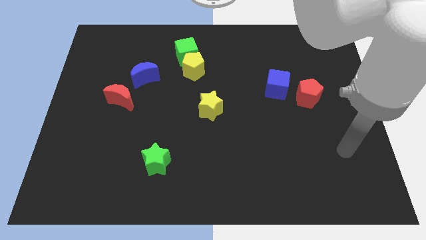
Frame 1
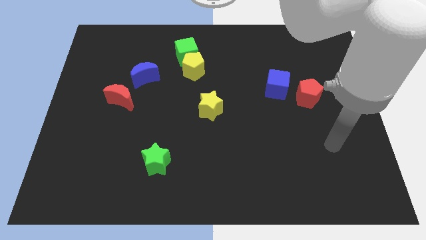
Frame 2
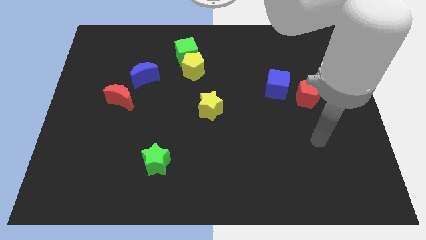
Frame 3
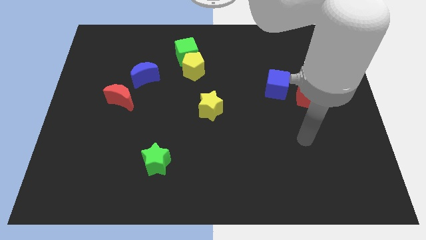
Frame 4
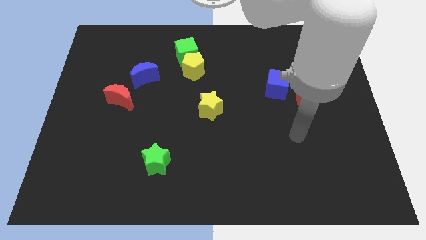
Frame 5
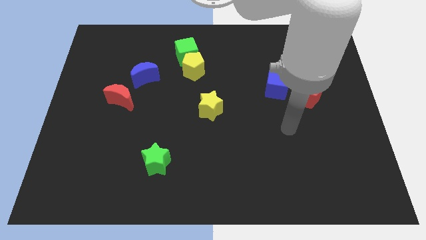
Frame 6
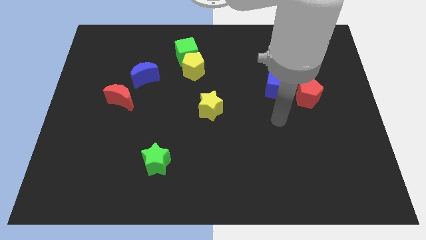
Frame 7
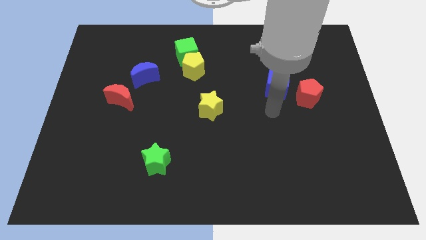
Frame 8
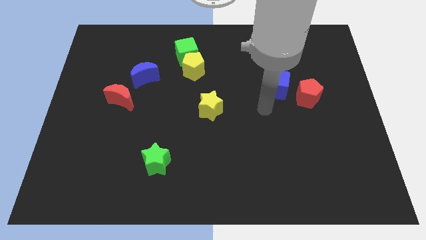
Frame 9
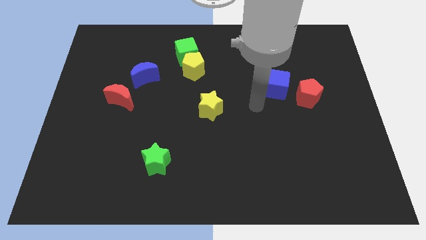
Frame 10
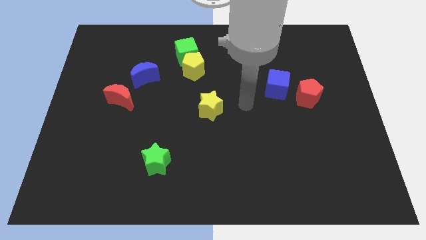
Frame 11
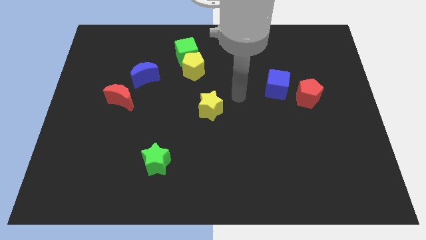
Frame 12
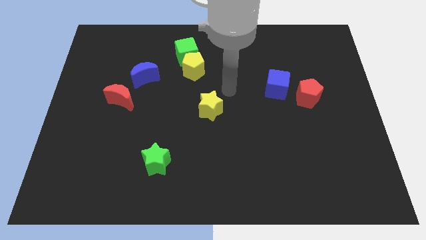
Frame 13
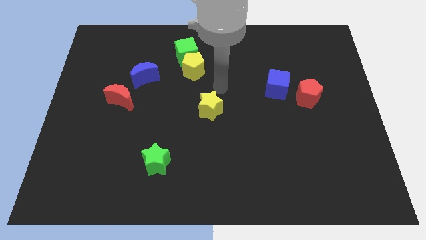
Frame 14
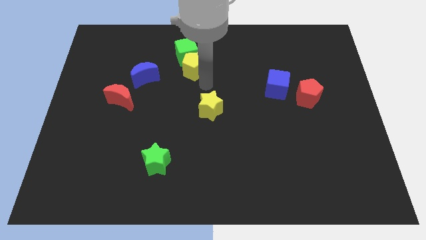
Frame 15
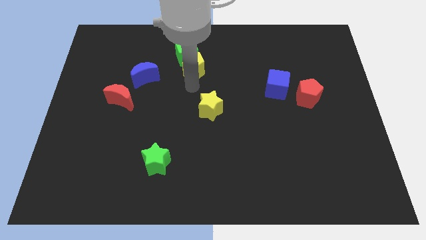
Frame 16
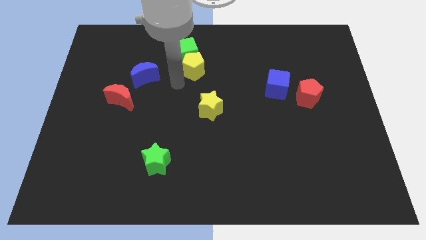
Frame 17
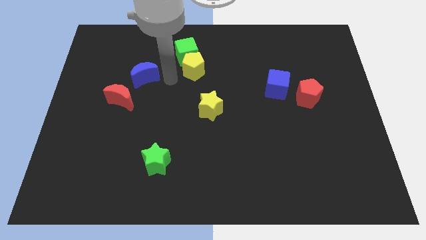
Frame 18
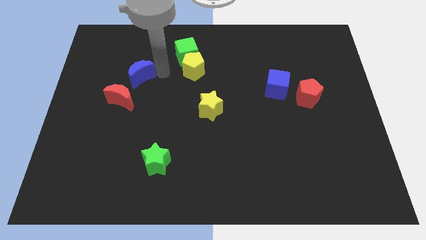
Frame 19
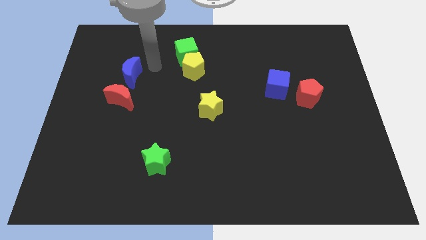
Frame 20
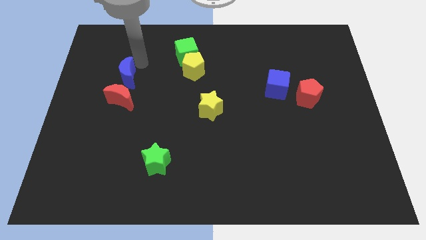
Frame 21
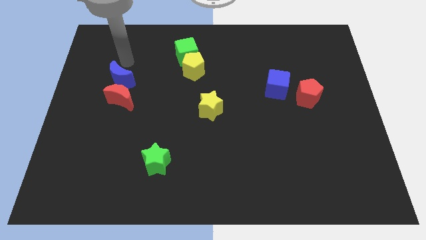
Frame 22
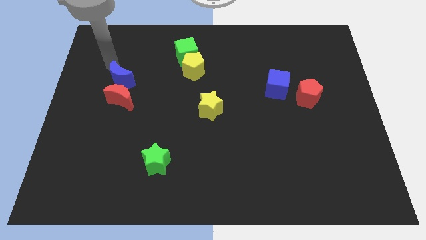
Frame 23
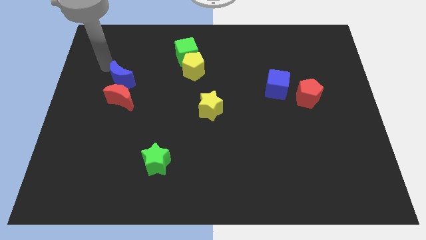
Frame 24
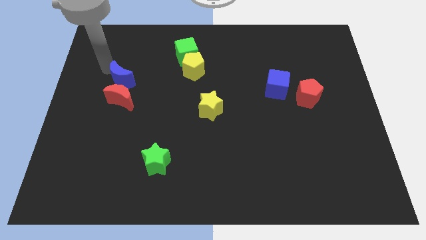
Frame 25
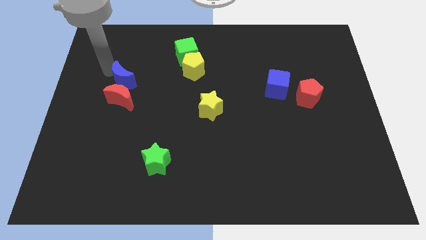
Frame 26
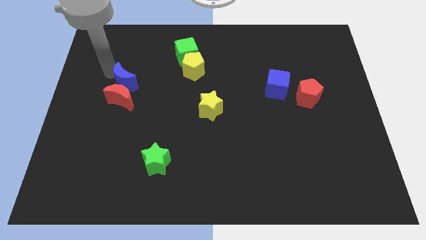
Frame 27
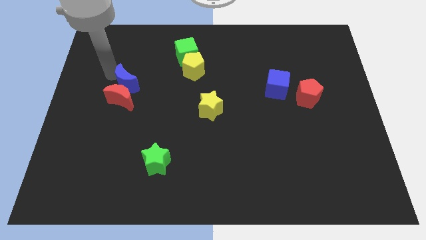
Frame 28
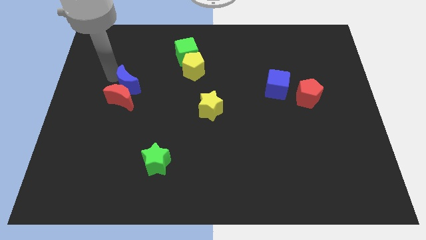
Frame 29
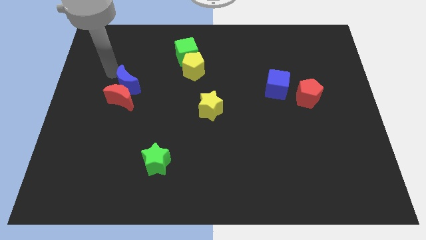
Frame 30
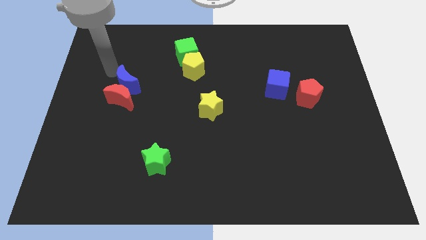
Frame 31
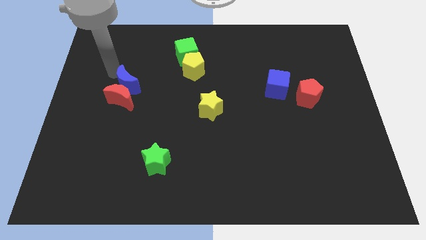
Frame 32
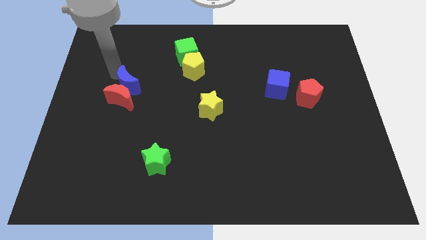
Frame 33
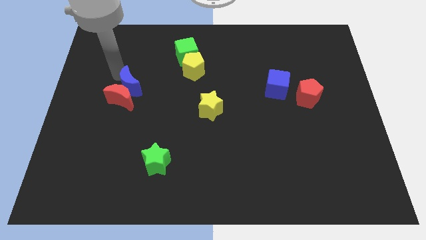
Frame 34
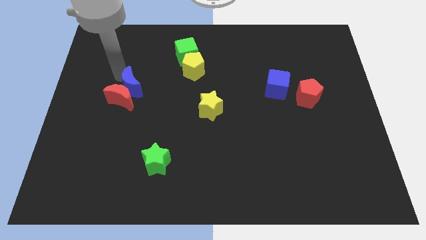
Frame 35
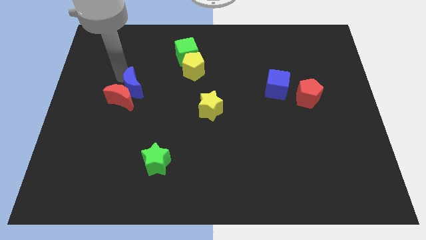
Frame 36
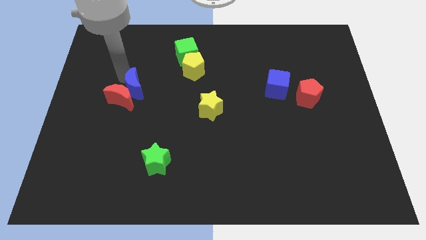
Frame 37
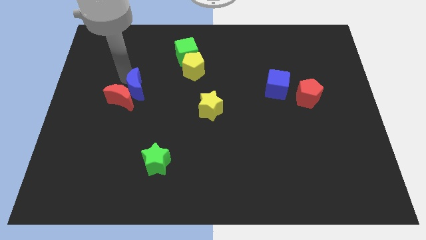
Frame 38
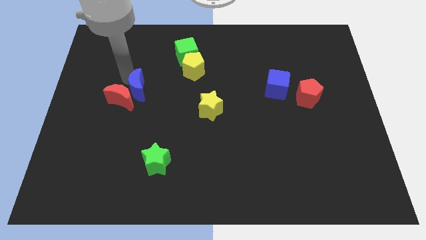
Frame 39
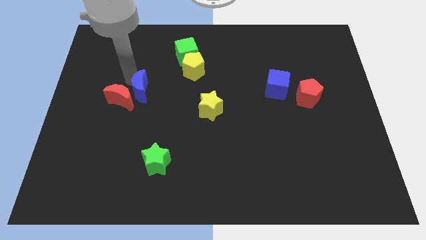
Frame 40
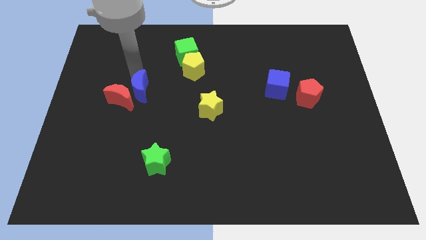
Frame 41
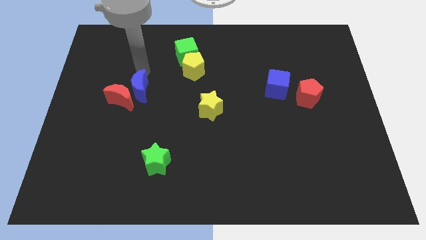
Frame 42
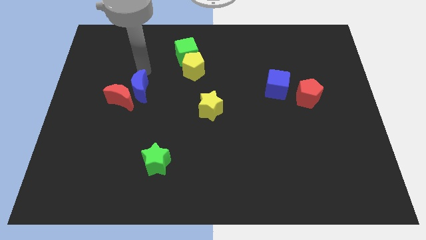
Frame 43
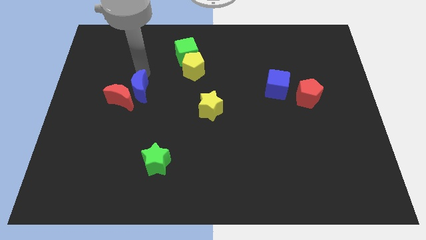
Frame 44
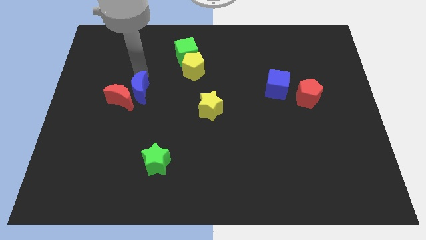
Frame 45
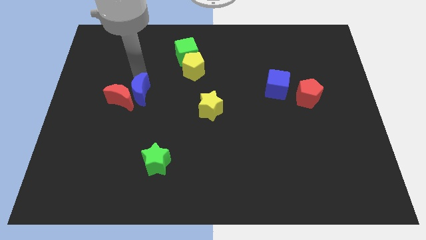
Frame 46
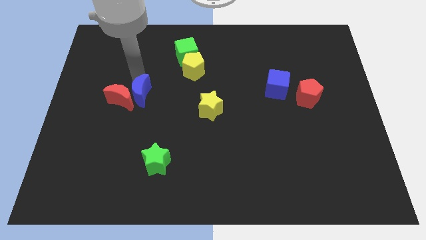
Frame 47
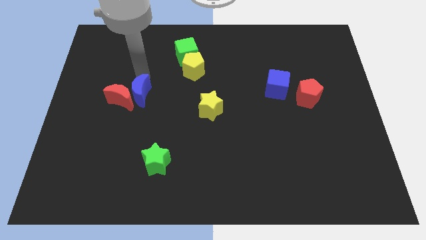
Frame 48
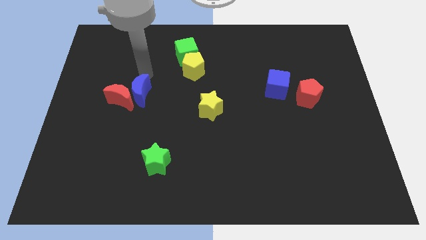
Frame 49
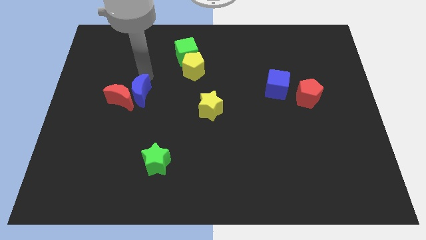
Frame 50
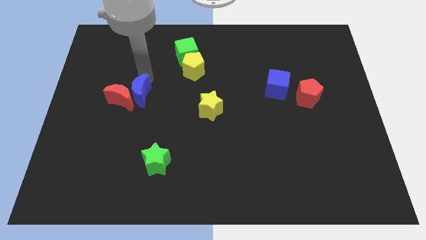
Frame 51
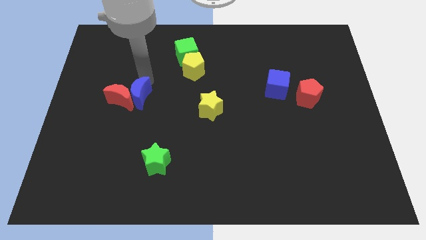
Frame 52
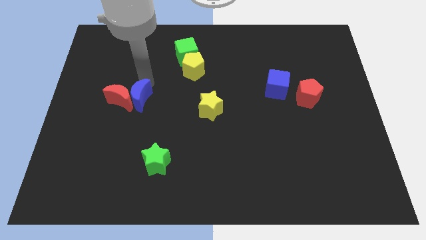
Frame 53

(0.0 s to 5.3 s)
slightly slide the blue moon downwards

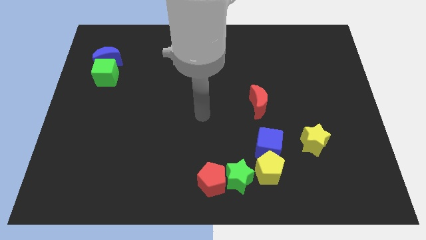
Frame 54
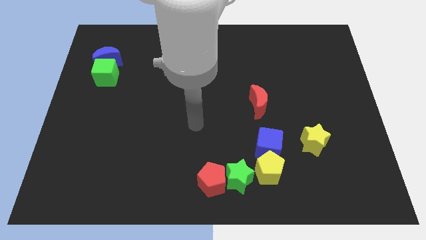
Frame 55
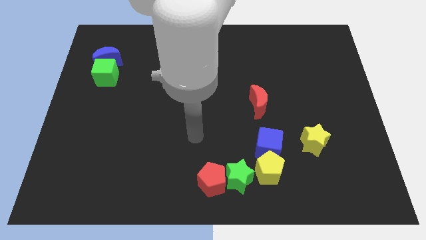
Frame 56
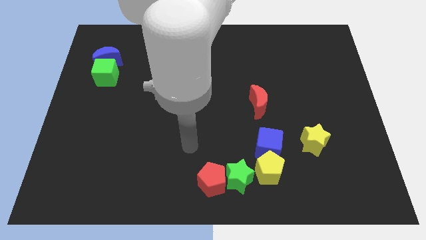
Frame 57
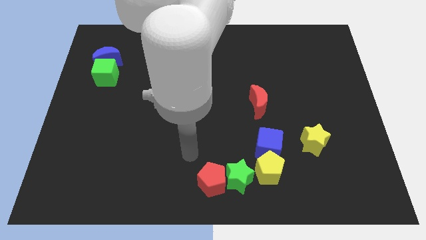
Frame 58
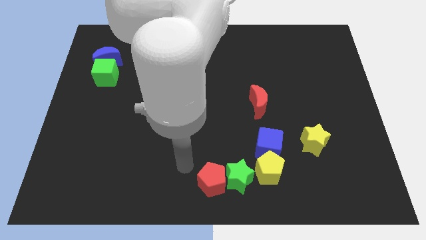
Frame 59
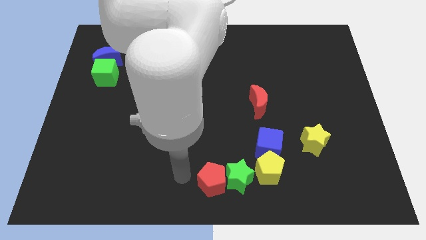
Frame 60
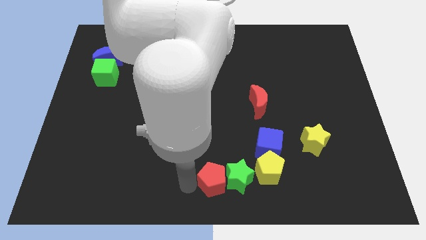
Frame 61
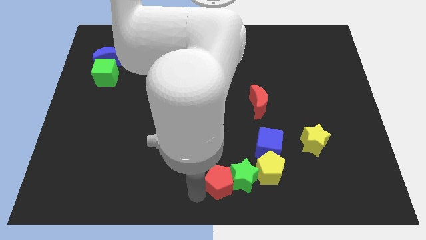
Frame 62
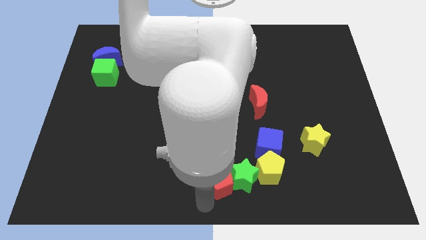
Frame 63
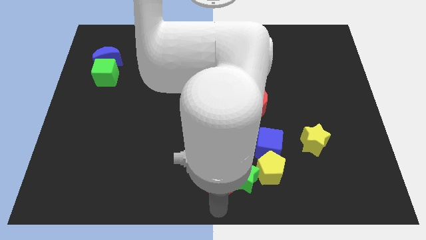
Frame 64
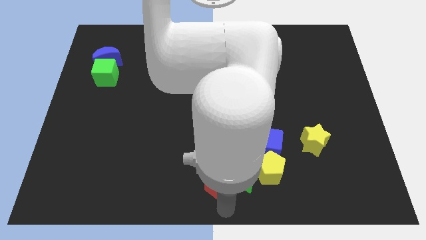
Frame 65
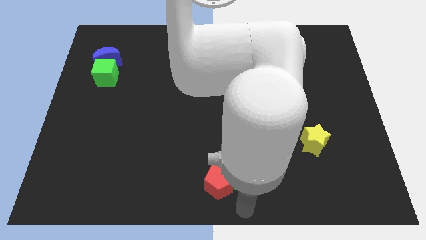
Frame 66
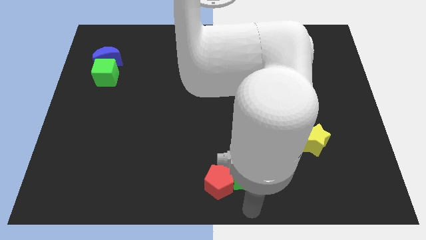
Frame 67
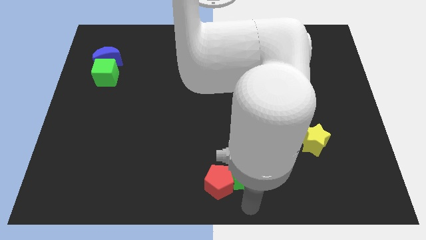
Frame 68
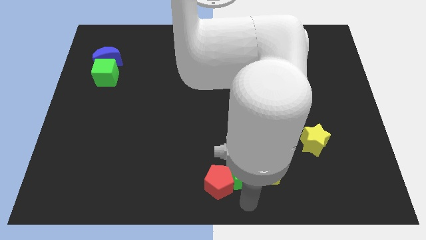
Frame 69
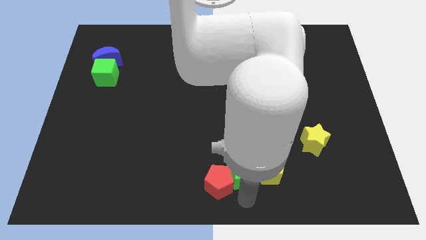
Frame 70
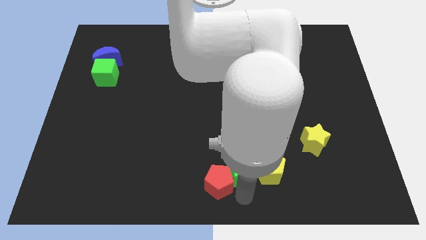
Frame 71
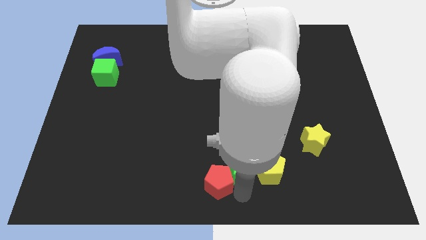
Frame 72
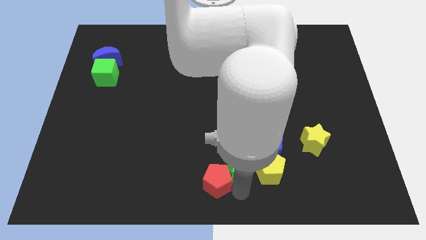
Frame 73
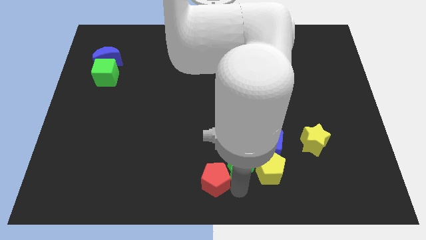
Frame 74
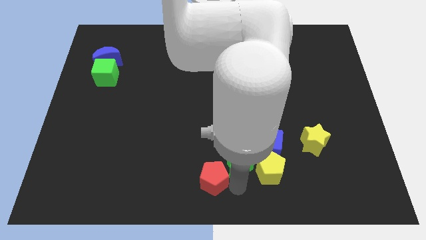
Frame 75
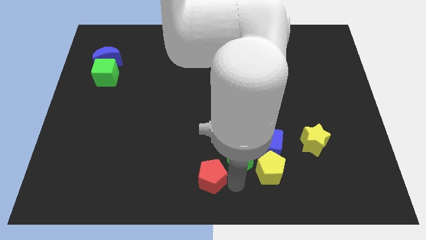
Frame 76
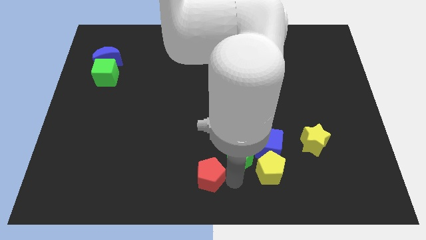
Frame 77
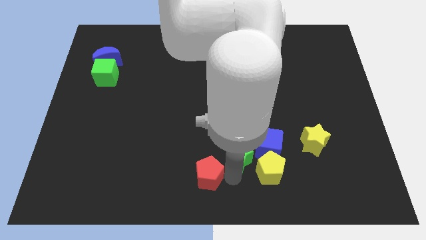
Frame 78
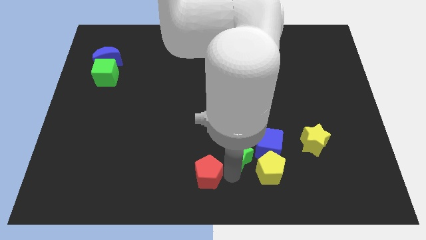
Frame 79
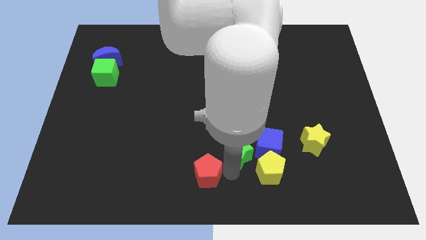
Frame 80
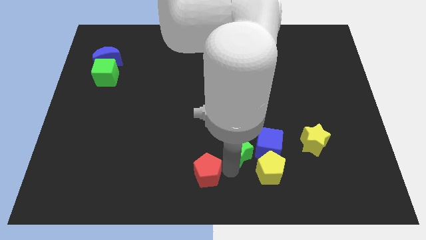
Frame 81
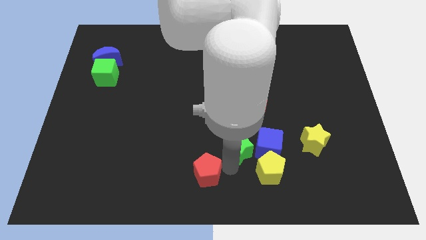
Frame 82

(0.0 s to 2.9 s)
move the green star upwards slightly
